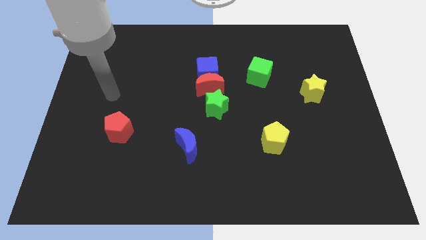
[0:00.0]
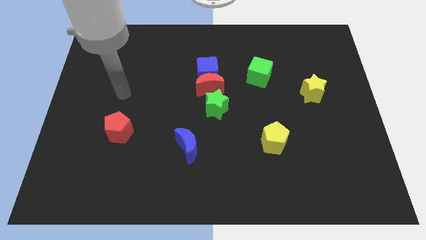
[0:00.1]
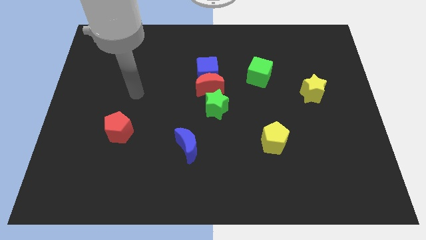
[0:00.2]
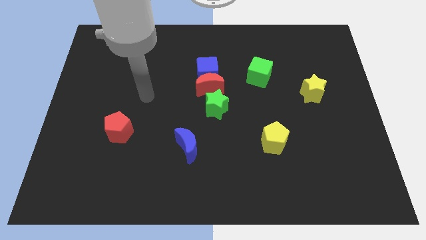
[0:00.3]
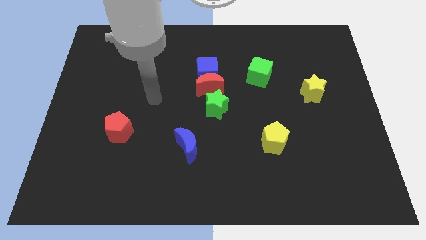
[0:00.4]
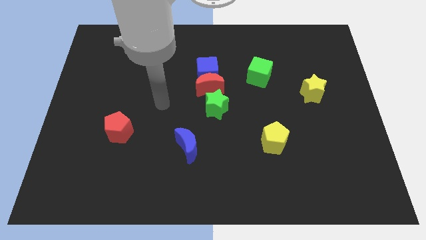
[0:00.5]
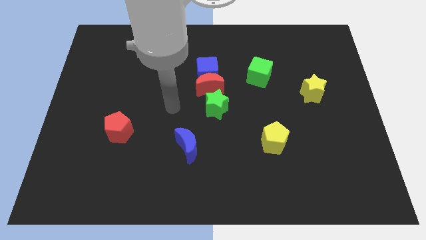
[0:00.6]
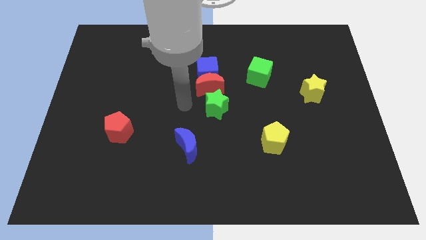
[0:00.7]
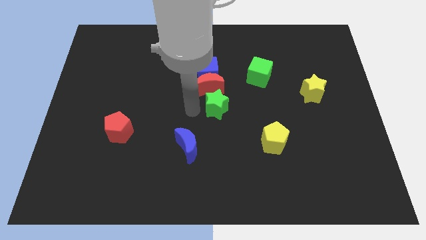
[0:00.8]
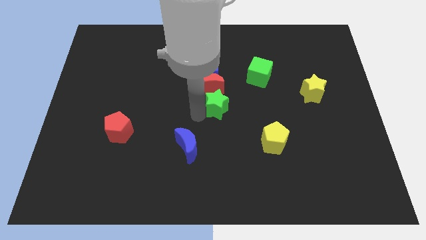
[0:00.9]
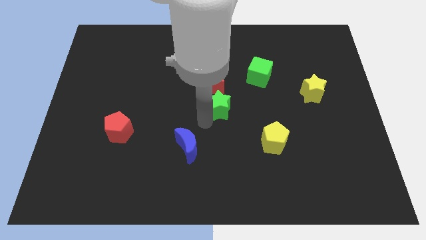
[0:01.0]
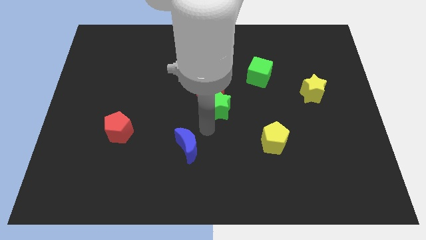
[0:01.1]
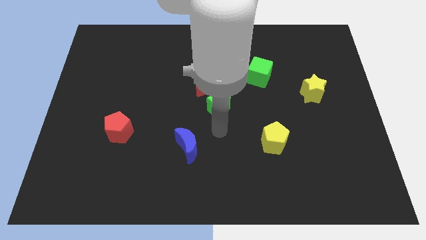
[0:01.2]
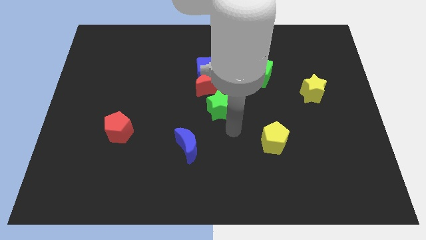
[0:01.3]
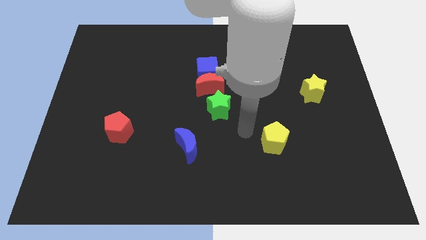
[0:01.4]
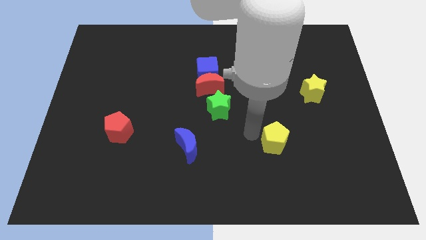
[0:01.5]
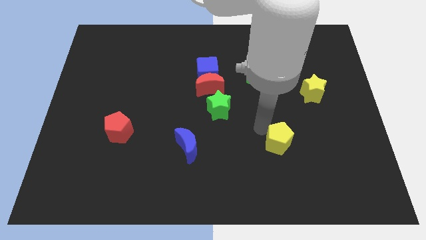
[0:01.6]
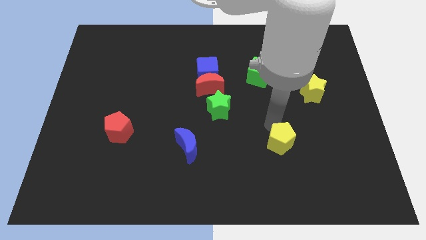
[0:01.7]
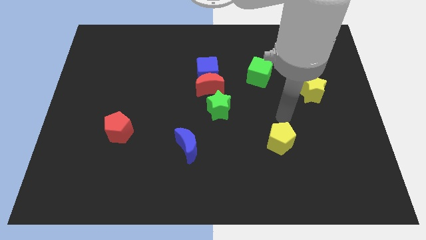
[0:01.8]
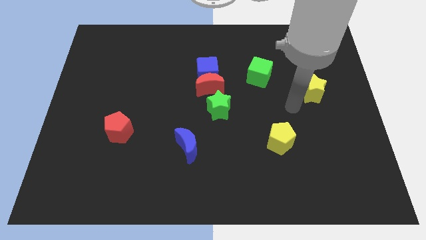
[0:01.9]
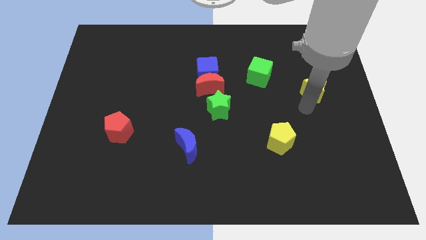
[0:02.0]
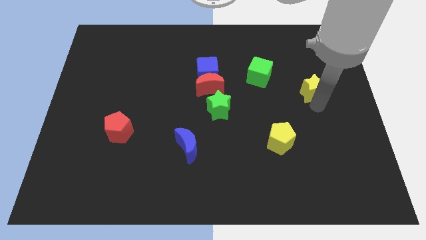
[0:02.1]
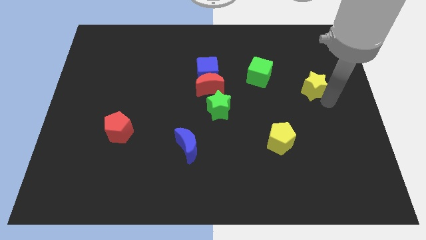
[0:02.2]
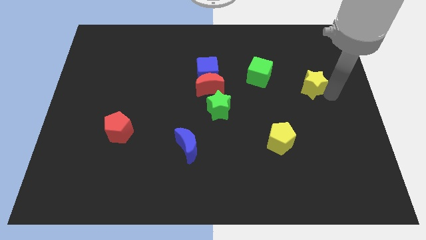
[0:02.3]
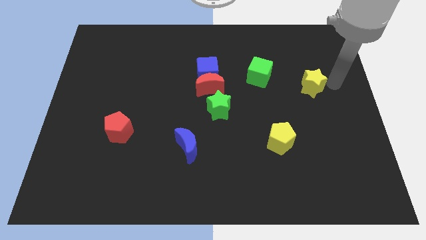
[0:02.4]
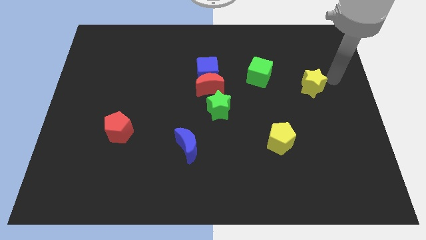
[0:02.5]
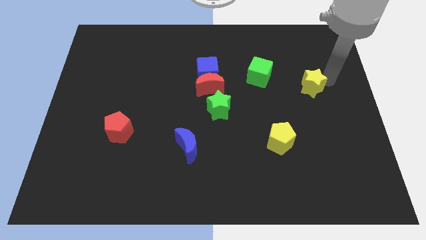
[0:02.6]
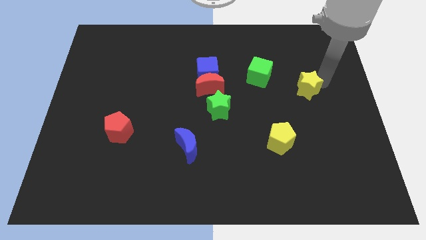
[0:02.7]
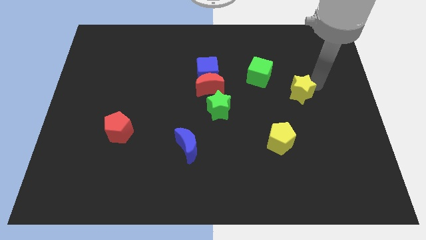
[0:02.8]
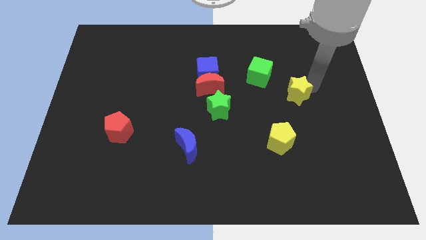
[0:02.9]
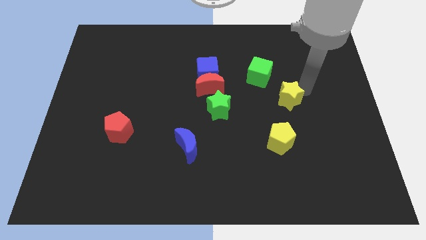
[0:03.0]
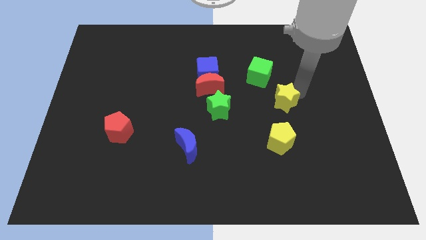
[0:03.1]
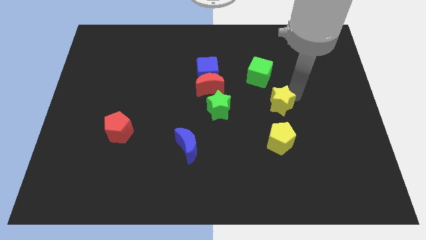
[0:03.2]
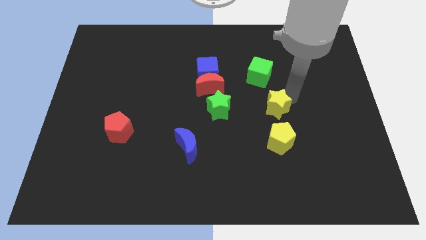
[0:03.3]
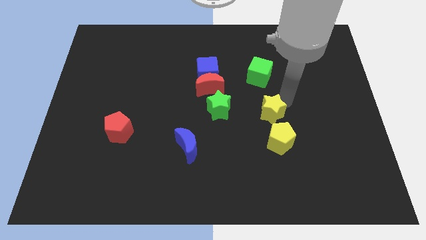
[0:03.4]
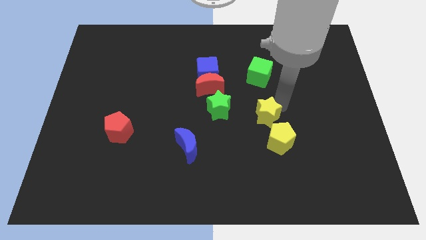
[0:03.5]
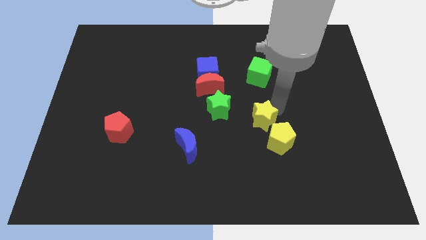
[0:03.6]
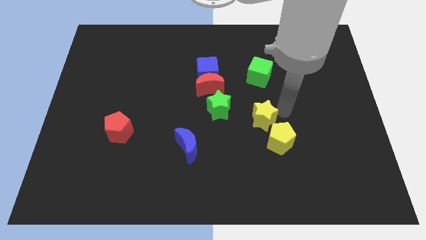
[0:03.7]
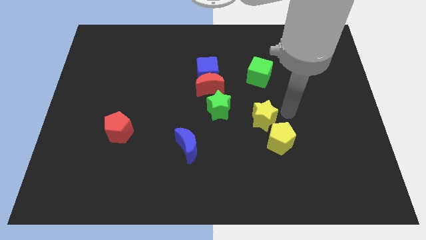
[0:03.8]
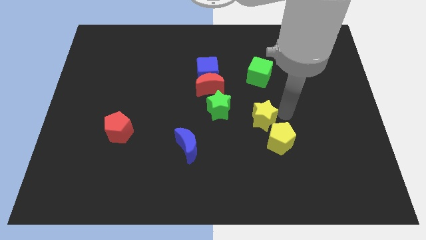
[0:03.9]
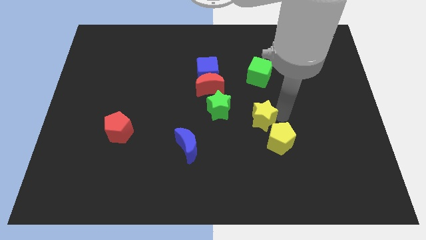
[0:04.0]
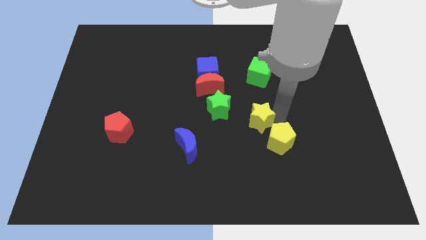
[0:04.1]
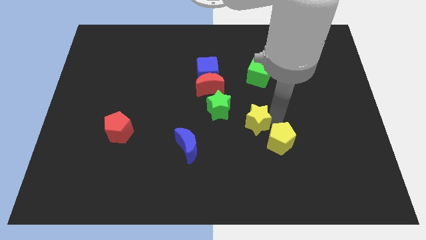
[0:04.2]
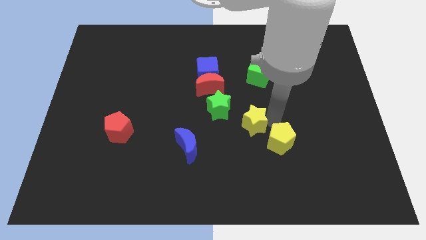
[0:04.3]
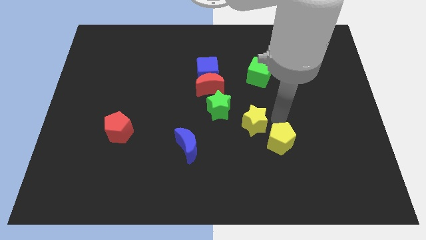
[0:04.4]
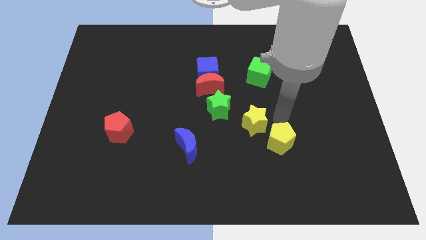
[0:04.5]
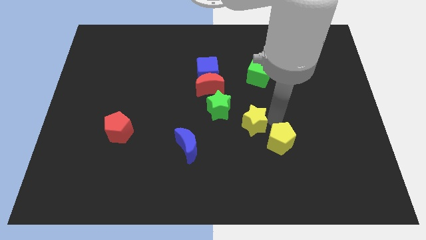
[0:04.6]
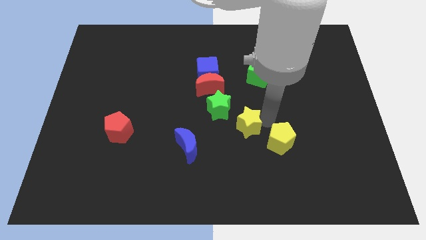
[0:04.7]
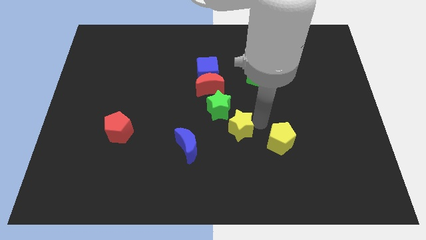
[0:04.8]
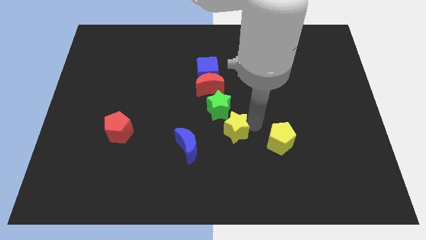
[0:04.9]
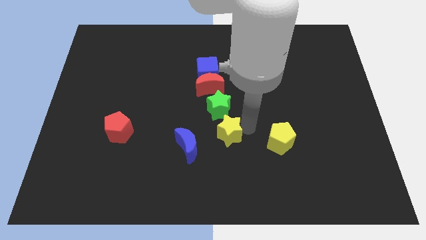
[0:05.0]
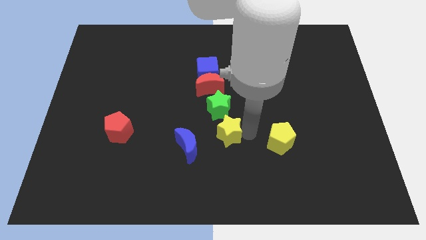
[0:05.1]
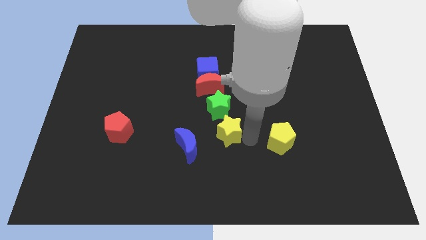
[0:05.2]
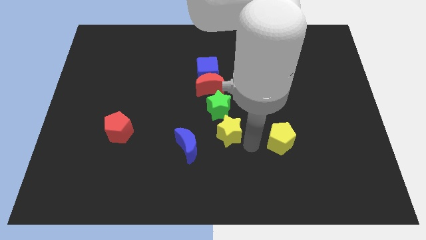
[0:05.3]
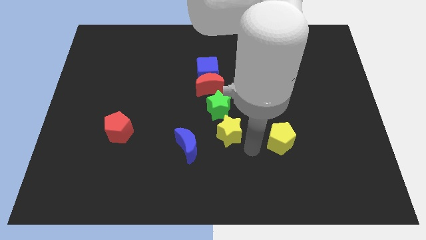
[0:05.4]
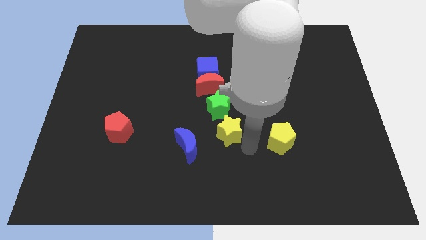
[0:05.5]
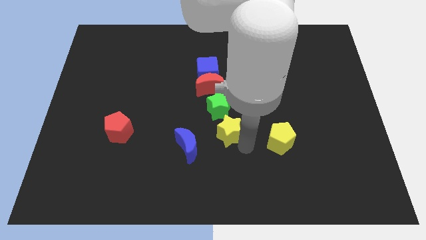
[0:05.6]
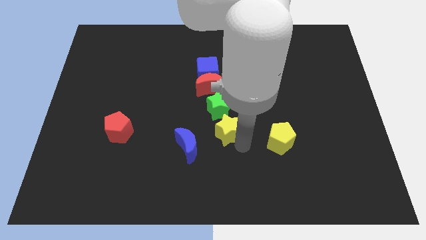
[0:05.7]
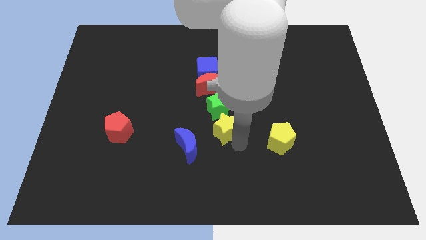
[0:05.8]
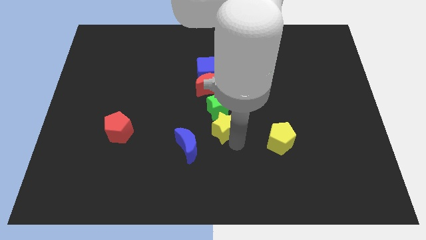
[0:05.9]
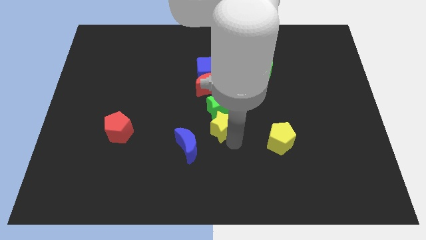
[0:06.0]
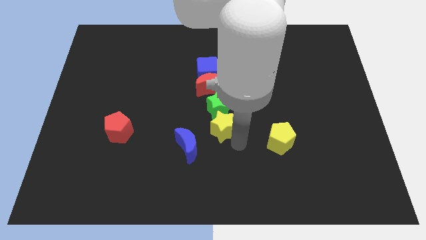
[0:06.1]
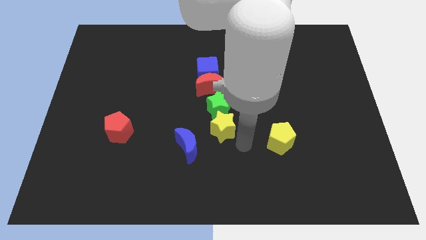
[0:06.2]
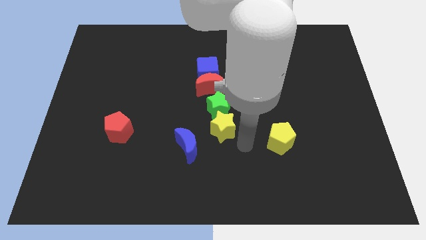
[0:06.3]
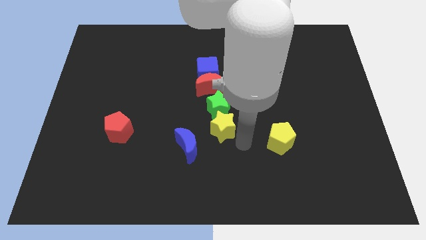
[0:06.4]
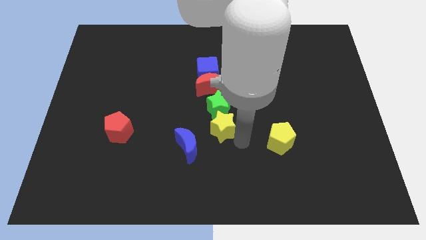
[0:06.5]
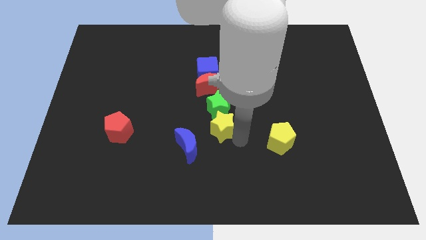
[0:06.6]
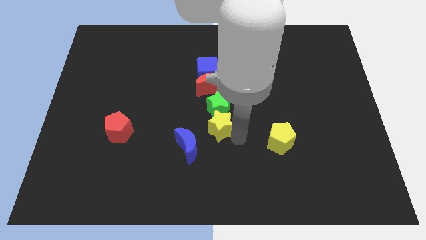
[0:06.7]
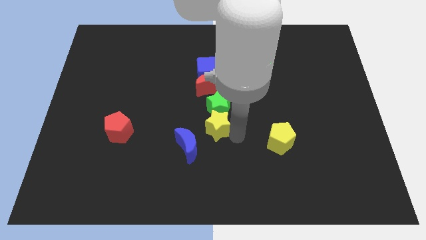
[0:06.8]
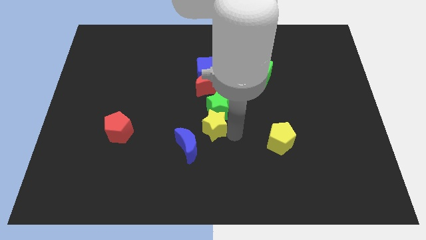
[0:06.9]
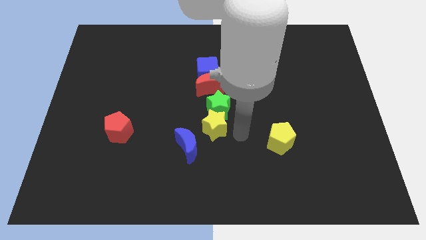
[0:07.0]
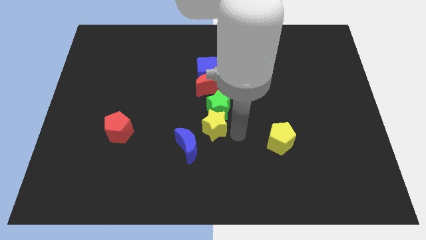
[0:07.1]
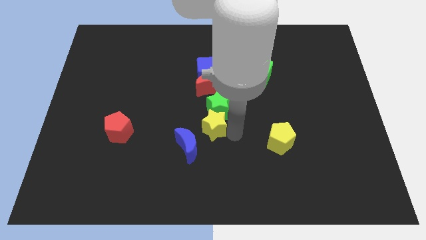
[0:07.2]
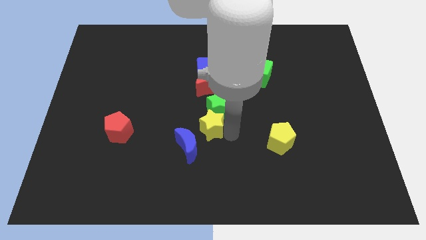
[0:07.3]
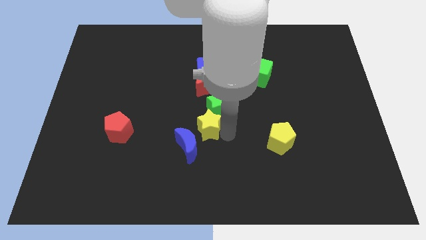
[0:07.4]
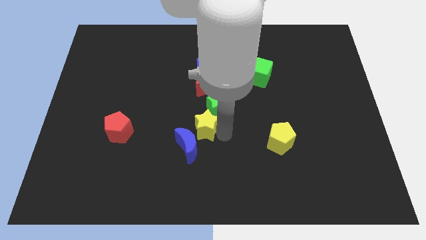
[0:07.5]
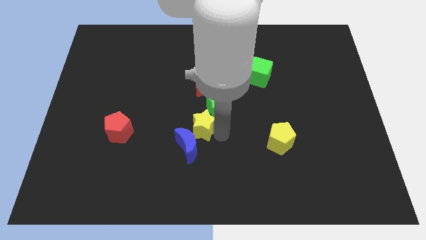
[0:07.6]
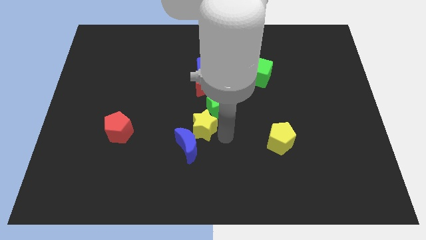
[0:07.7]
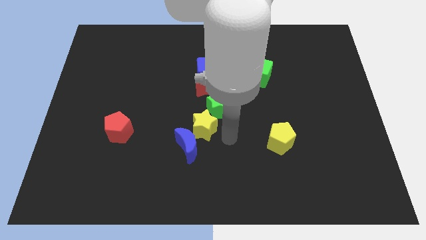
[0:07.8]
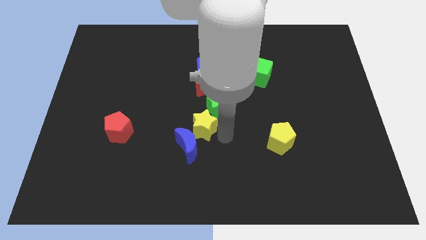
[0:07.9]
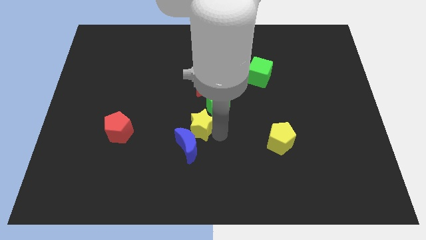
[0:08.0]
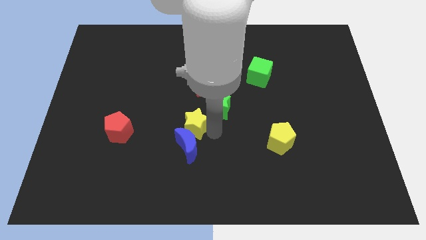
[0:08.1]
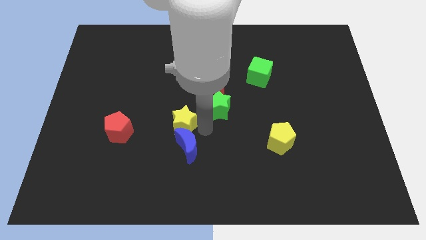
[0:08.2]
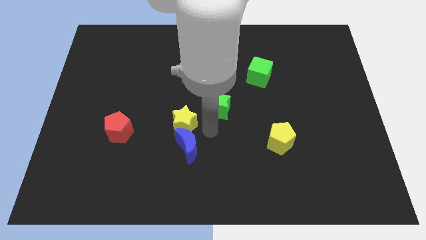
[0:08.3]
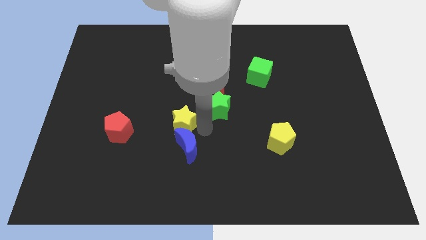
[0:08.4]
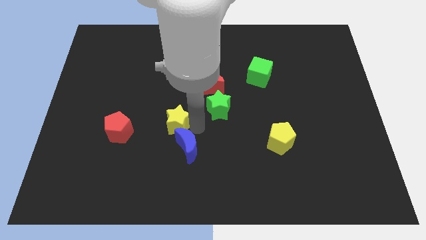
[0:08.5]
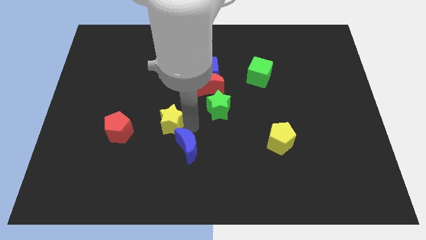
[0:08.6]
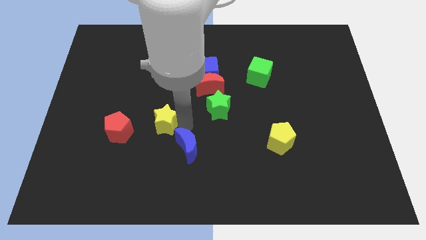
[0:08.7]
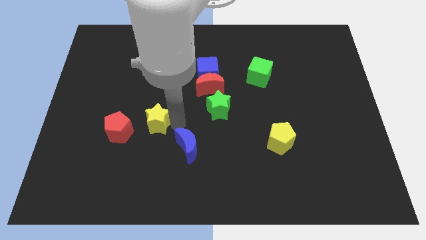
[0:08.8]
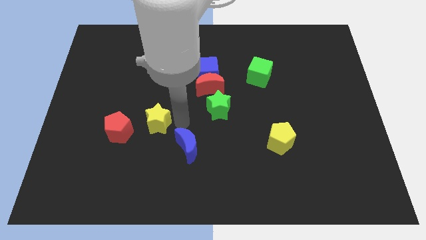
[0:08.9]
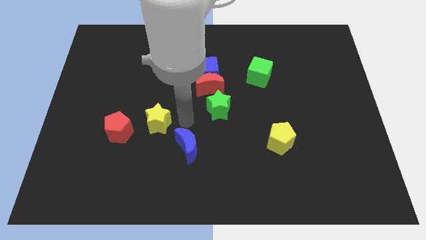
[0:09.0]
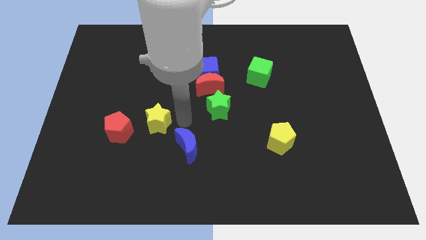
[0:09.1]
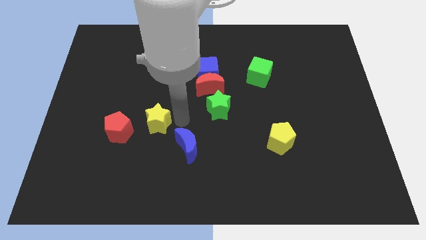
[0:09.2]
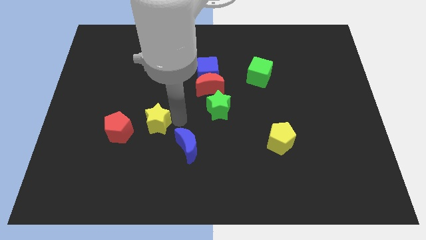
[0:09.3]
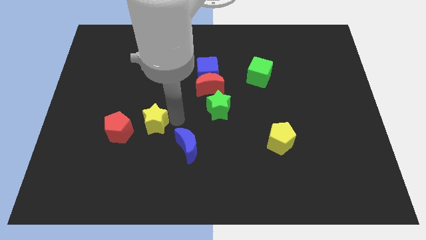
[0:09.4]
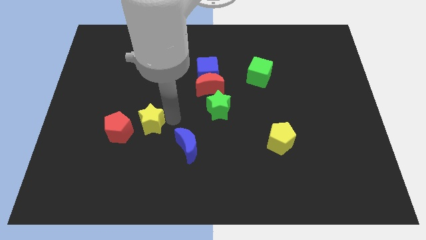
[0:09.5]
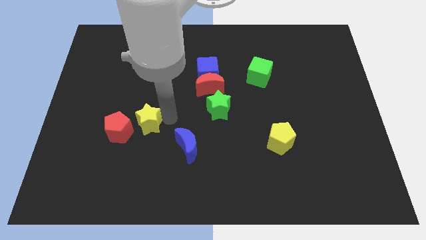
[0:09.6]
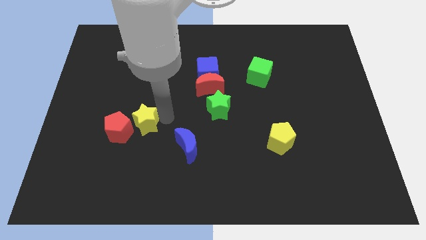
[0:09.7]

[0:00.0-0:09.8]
move the yellow star towards the red pentagon
